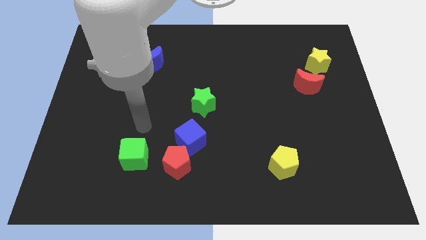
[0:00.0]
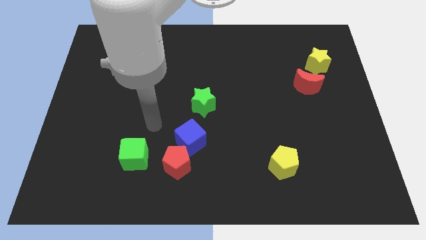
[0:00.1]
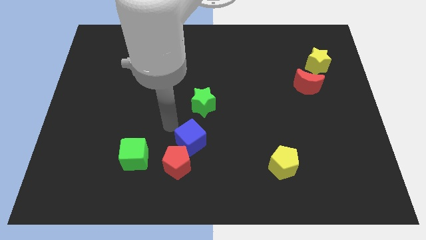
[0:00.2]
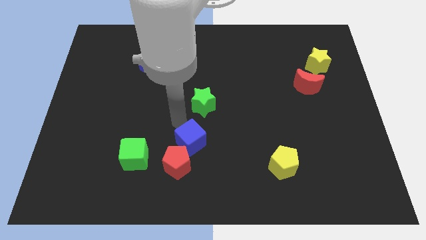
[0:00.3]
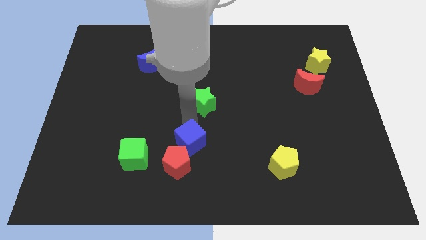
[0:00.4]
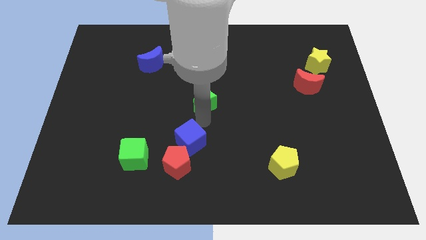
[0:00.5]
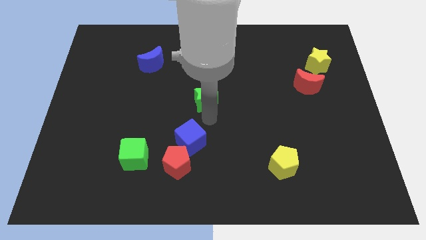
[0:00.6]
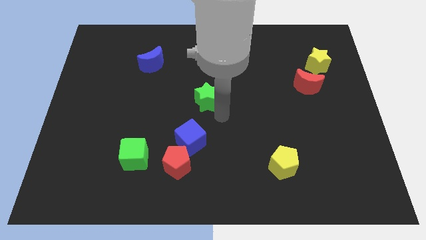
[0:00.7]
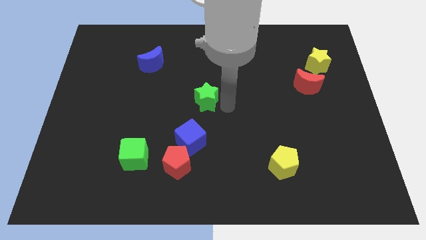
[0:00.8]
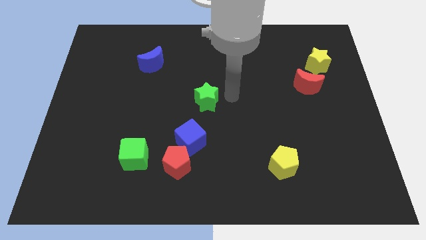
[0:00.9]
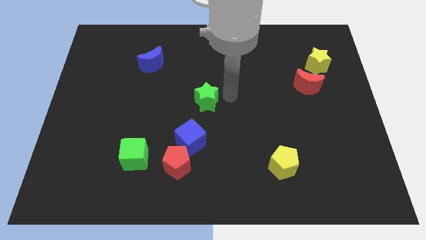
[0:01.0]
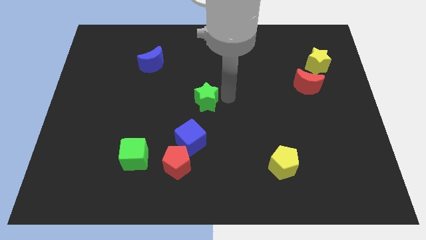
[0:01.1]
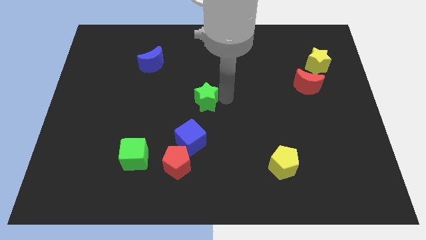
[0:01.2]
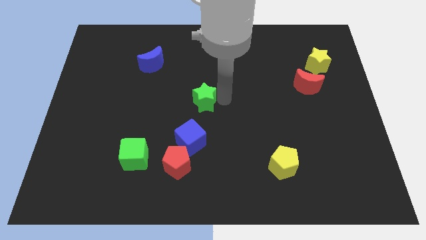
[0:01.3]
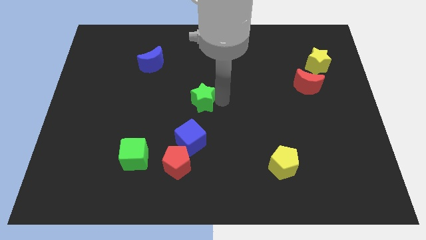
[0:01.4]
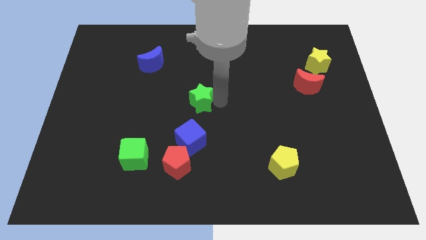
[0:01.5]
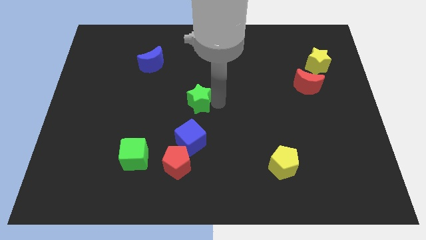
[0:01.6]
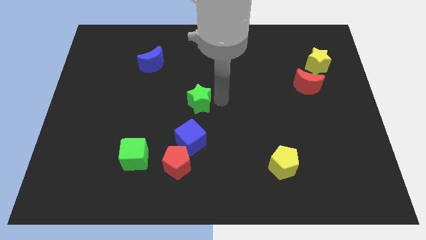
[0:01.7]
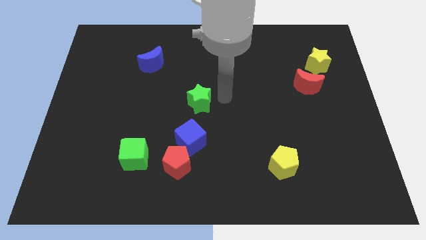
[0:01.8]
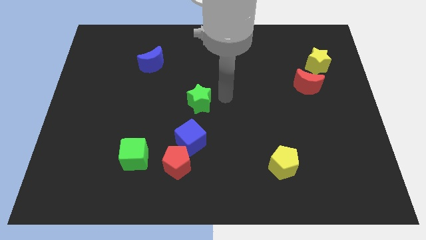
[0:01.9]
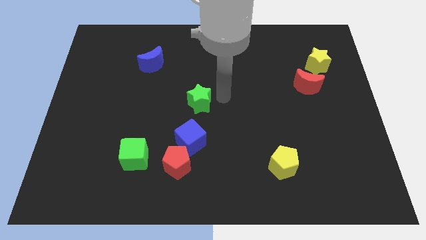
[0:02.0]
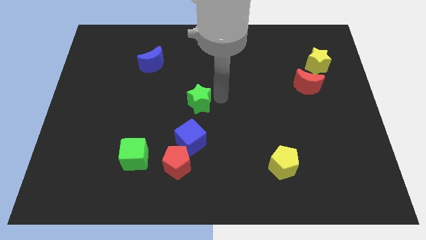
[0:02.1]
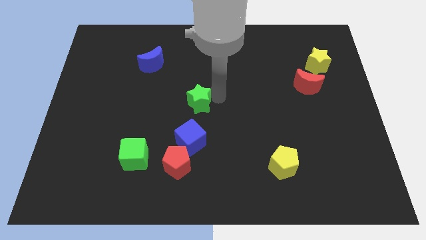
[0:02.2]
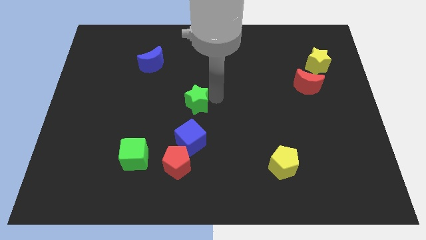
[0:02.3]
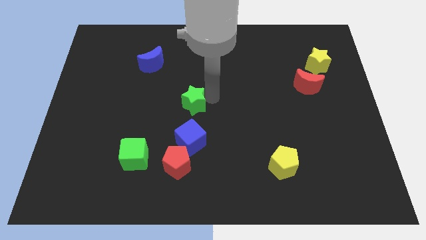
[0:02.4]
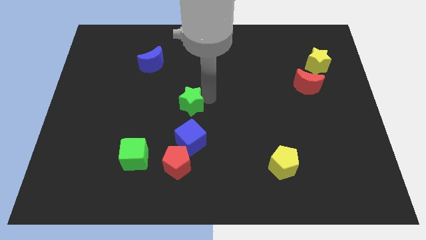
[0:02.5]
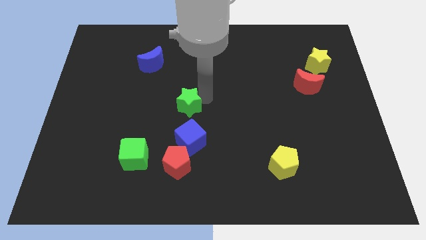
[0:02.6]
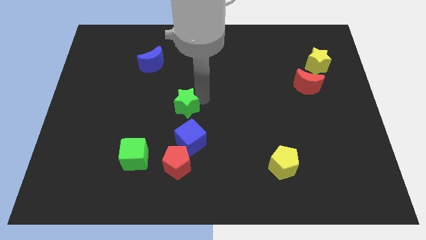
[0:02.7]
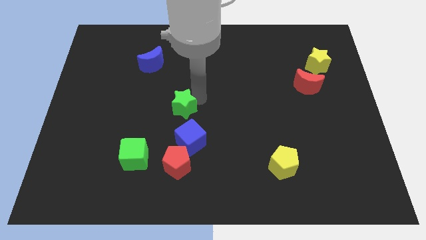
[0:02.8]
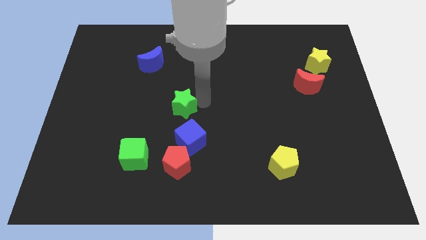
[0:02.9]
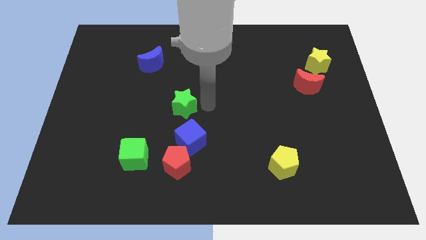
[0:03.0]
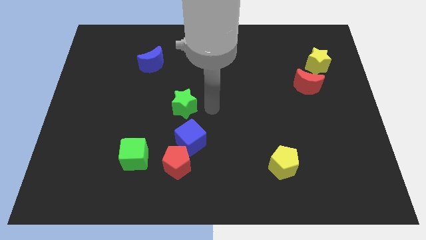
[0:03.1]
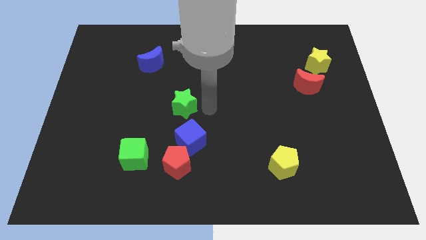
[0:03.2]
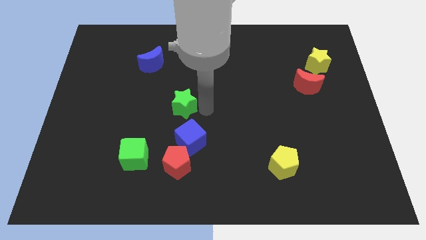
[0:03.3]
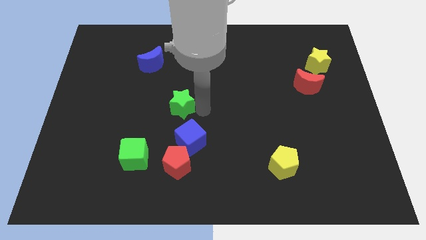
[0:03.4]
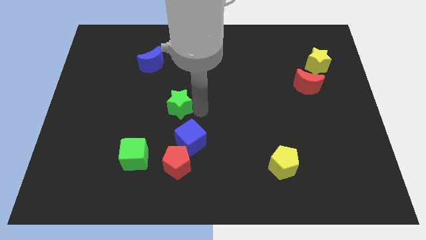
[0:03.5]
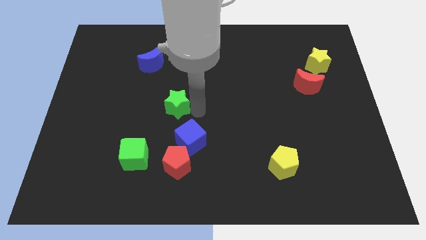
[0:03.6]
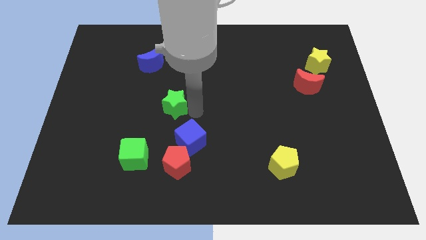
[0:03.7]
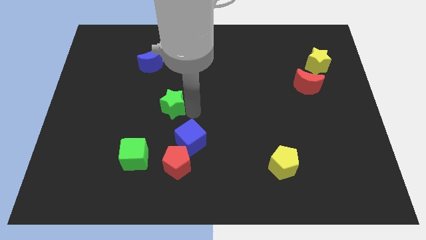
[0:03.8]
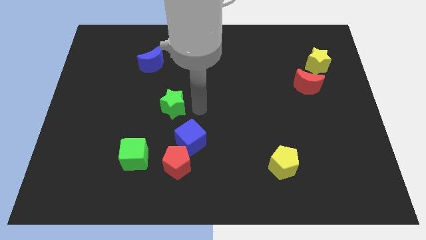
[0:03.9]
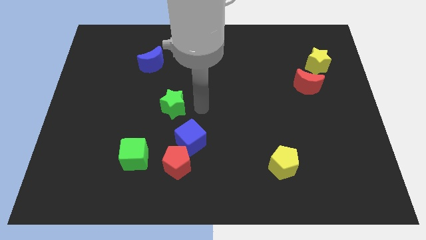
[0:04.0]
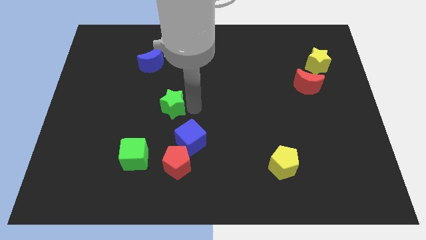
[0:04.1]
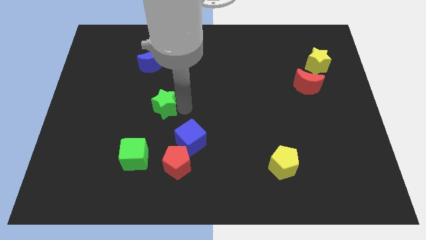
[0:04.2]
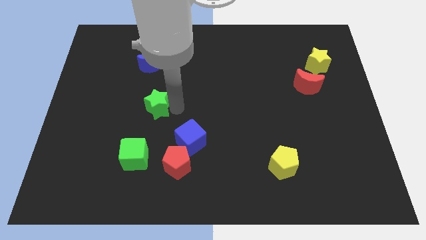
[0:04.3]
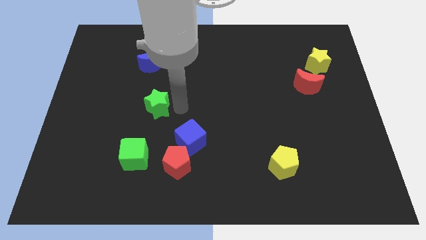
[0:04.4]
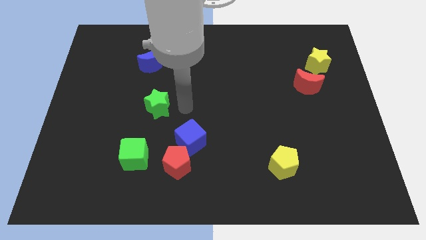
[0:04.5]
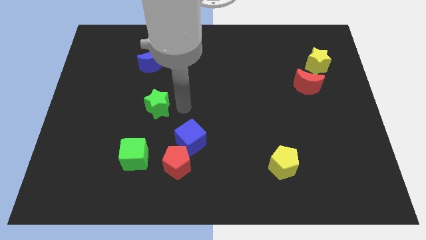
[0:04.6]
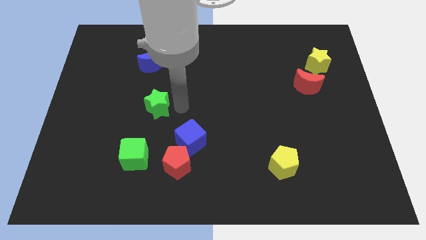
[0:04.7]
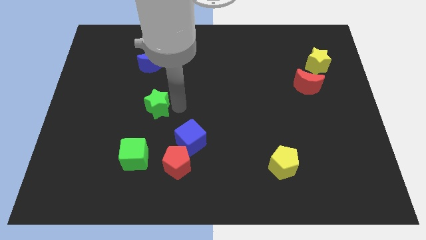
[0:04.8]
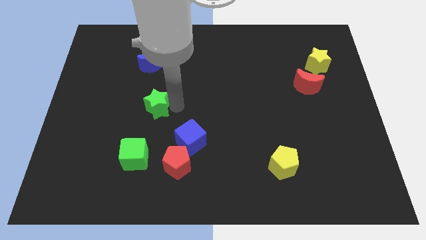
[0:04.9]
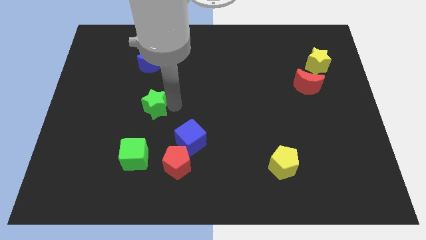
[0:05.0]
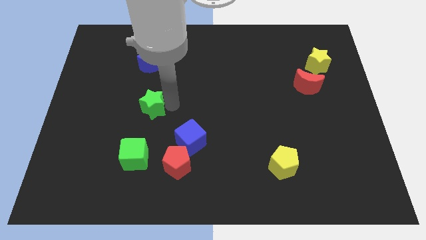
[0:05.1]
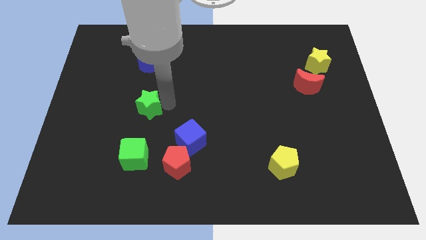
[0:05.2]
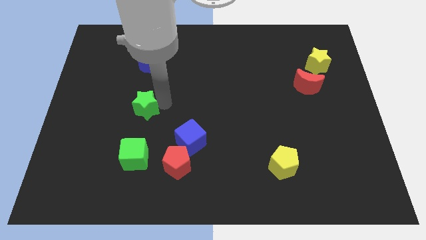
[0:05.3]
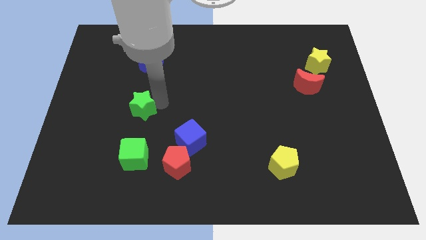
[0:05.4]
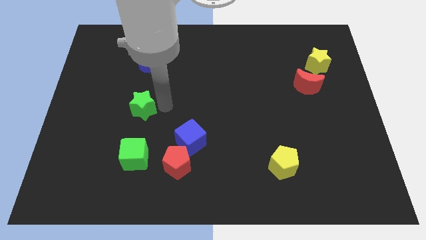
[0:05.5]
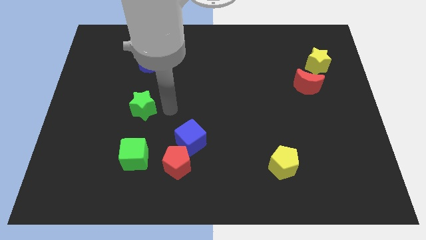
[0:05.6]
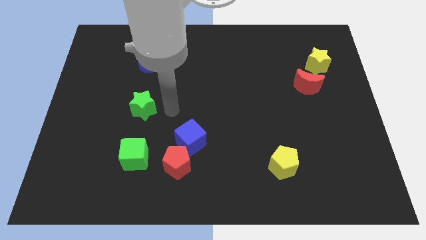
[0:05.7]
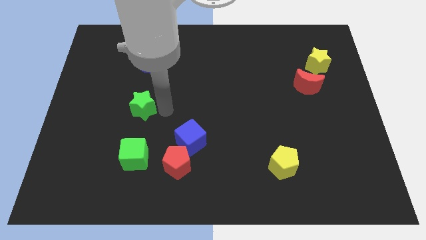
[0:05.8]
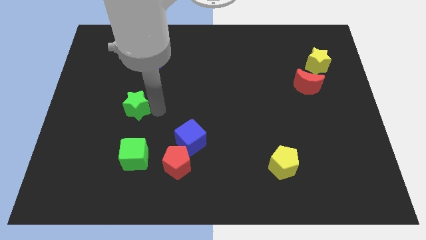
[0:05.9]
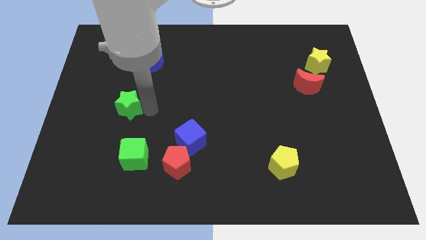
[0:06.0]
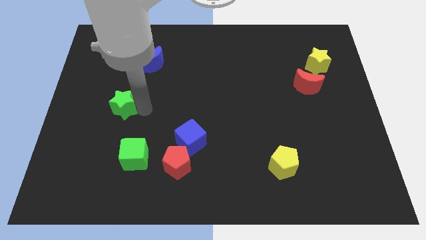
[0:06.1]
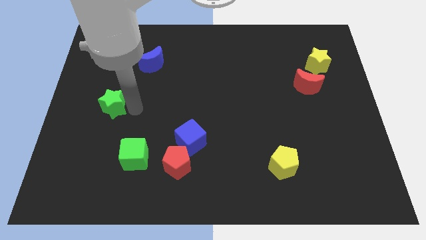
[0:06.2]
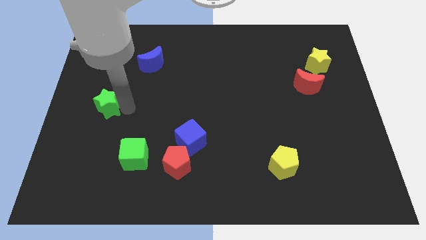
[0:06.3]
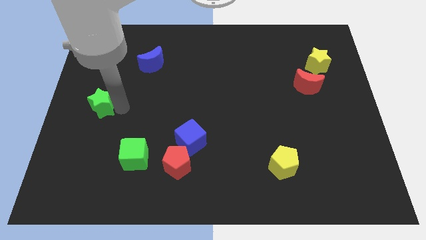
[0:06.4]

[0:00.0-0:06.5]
move the green star to the left side
